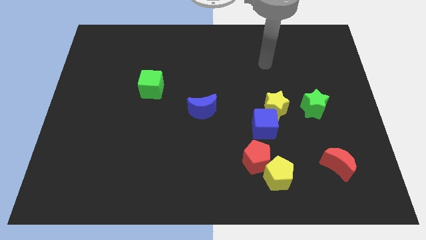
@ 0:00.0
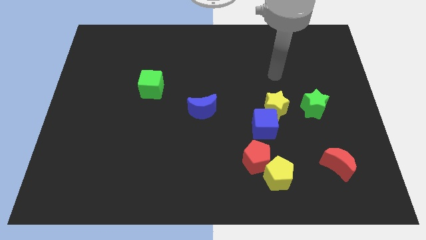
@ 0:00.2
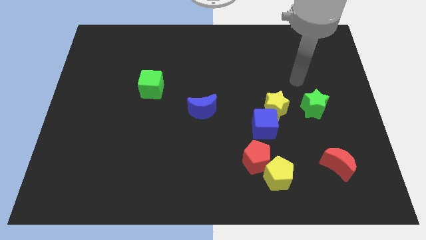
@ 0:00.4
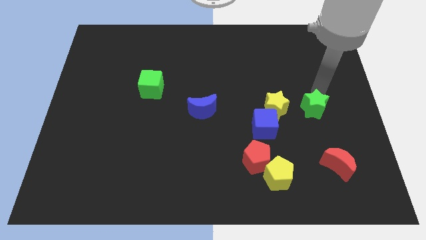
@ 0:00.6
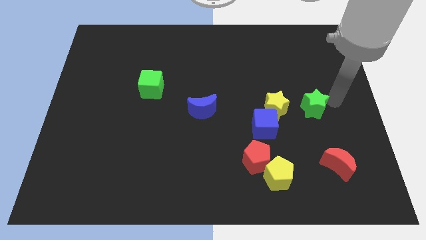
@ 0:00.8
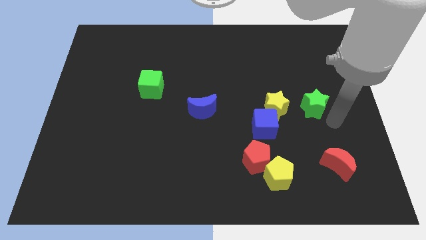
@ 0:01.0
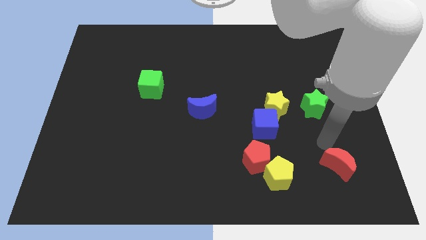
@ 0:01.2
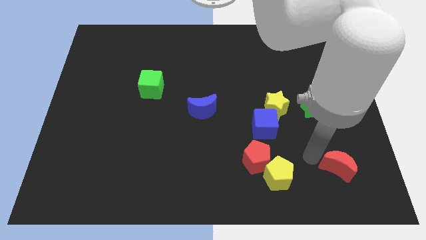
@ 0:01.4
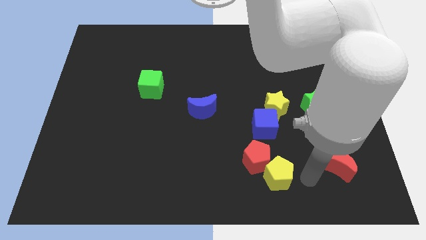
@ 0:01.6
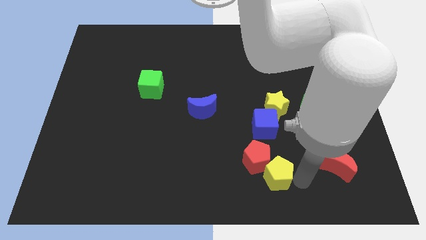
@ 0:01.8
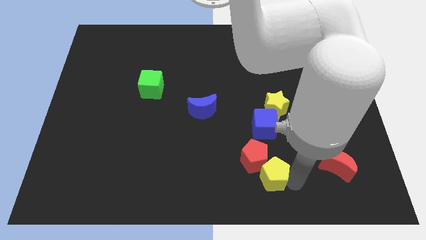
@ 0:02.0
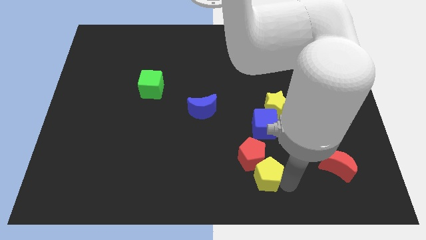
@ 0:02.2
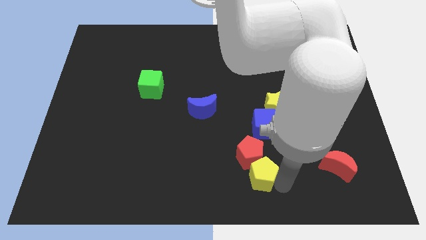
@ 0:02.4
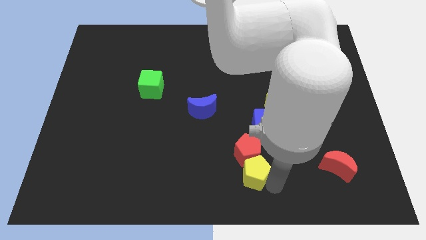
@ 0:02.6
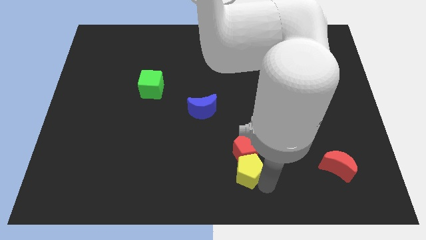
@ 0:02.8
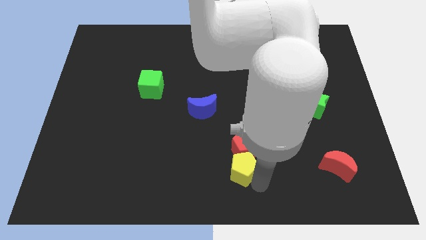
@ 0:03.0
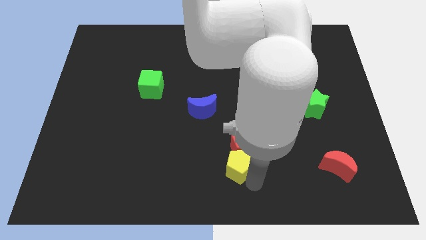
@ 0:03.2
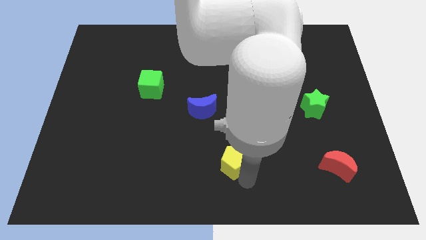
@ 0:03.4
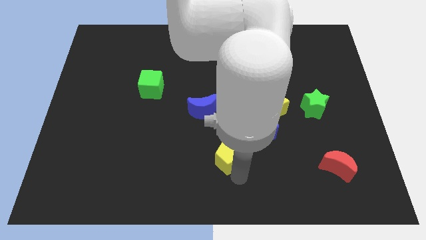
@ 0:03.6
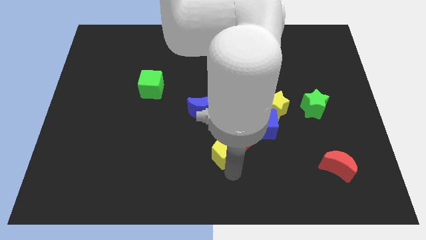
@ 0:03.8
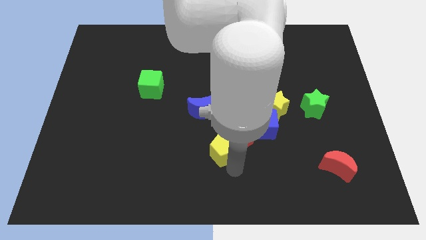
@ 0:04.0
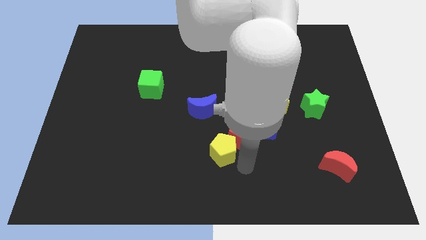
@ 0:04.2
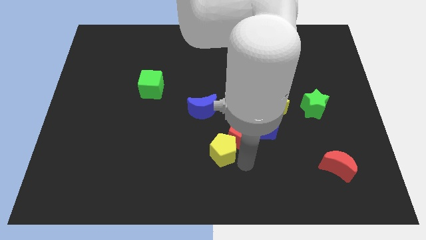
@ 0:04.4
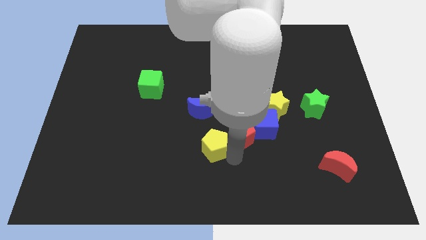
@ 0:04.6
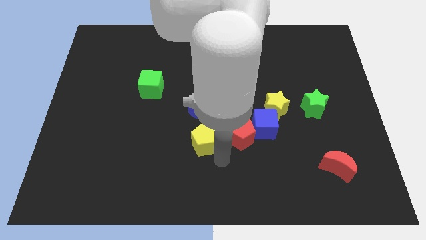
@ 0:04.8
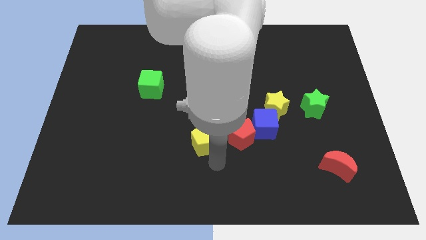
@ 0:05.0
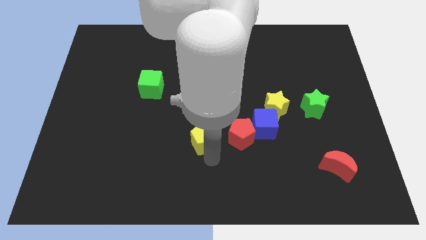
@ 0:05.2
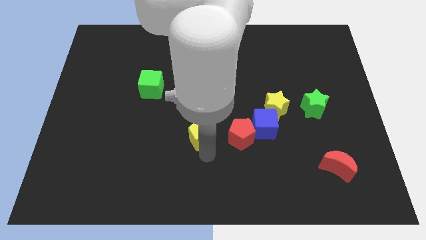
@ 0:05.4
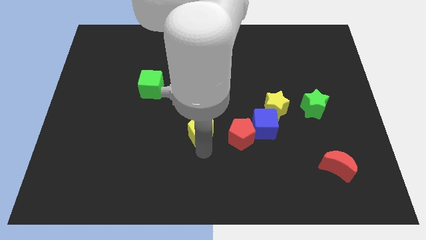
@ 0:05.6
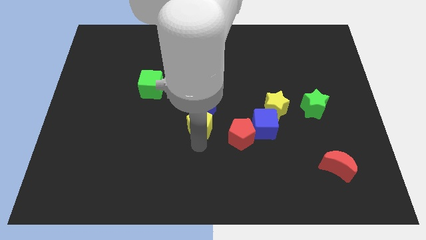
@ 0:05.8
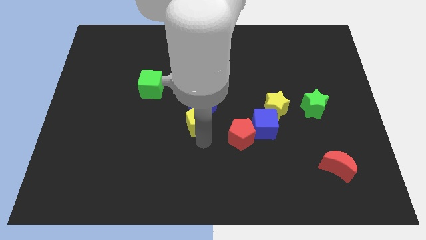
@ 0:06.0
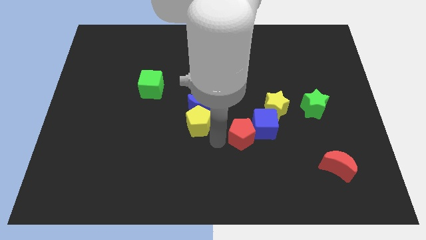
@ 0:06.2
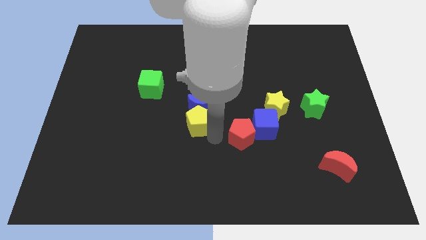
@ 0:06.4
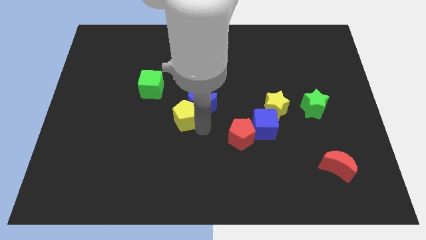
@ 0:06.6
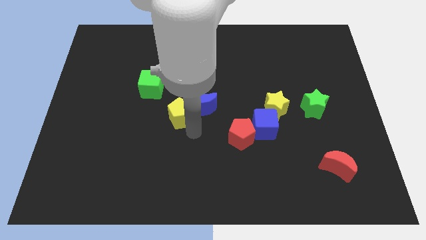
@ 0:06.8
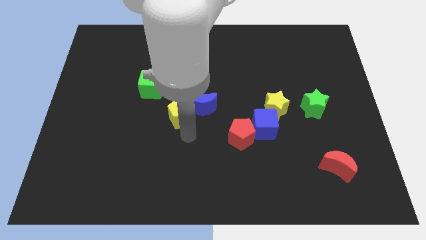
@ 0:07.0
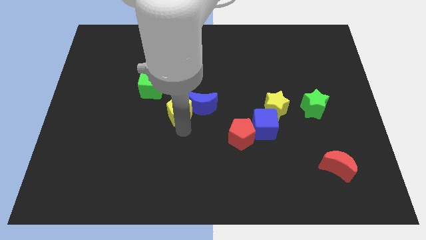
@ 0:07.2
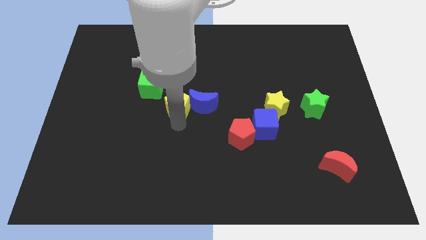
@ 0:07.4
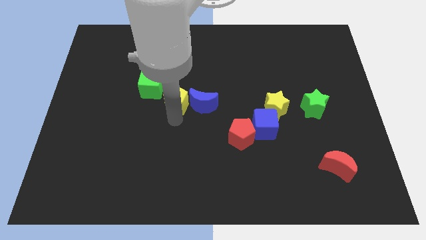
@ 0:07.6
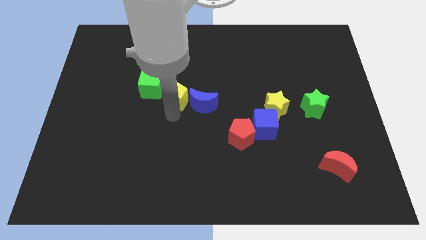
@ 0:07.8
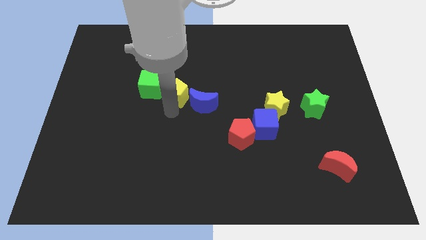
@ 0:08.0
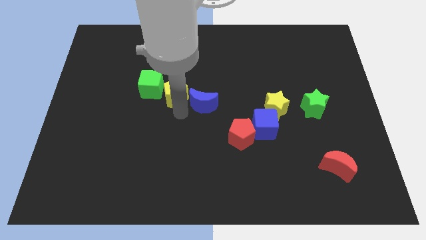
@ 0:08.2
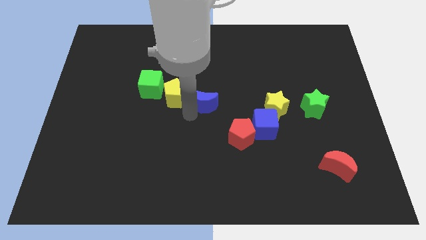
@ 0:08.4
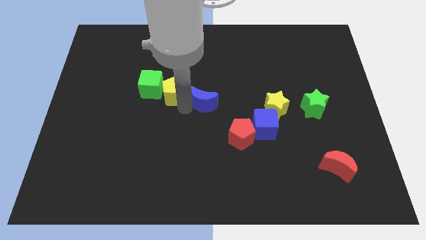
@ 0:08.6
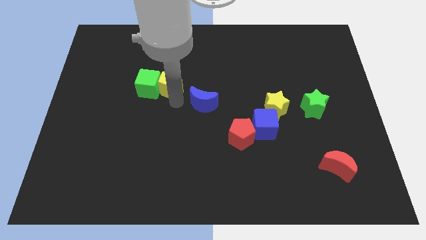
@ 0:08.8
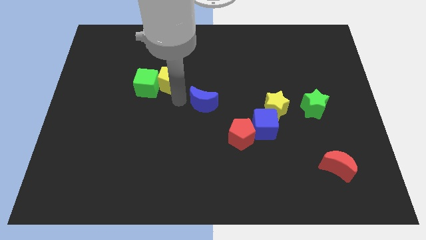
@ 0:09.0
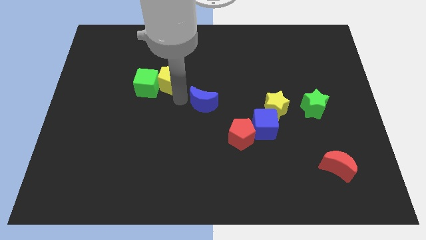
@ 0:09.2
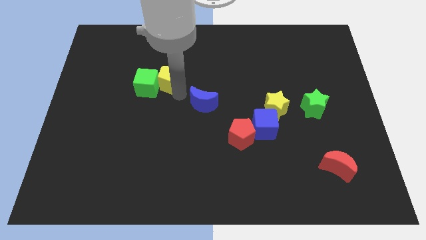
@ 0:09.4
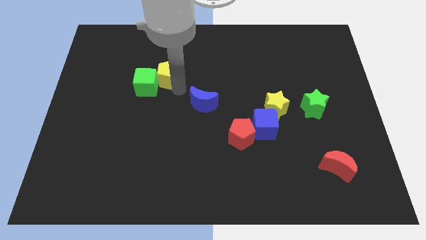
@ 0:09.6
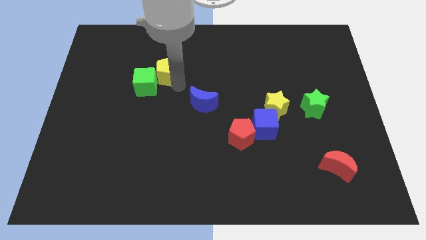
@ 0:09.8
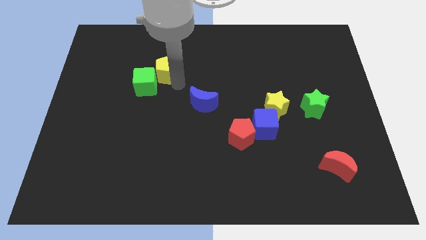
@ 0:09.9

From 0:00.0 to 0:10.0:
move the yellow pentagon to the top of the green cube

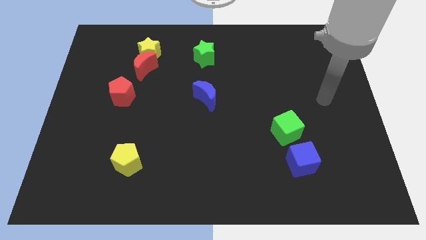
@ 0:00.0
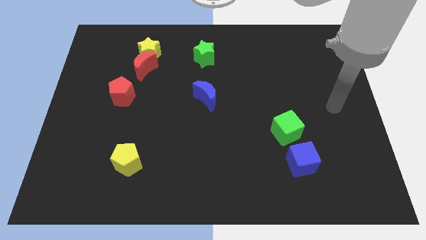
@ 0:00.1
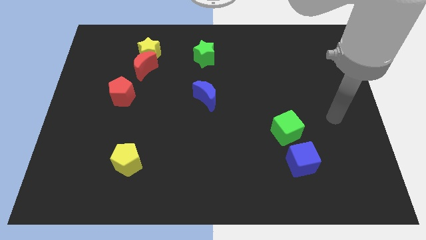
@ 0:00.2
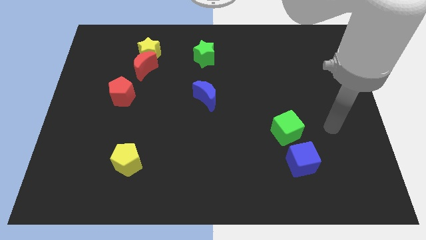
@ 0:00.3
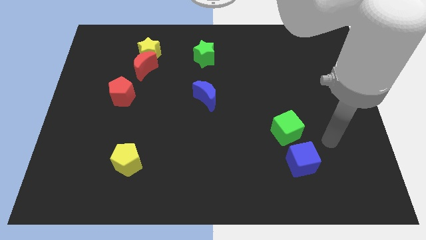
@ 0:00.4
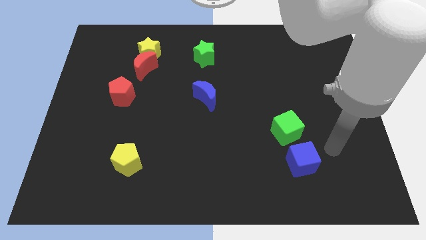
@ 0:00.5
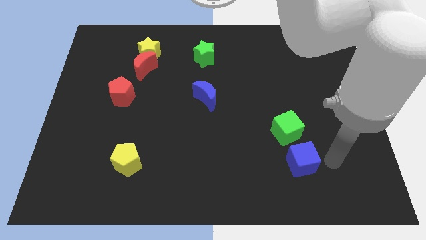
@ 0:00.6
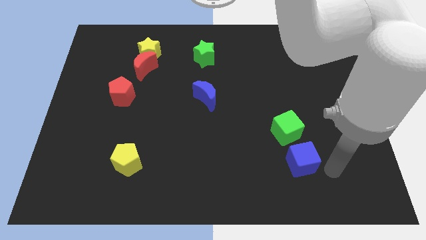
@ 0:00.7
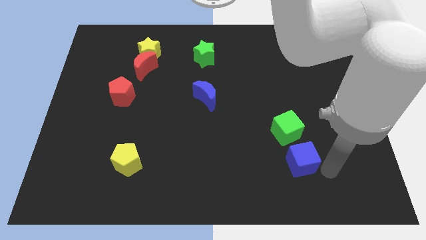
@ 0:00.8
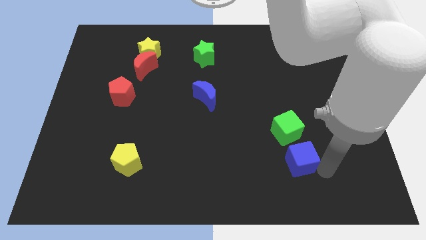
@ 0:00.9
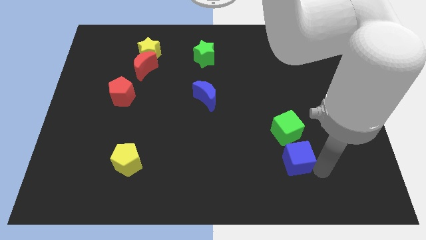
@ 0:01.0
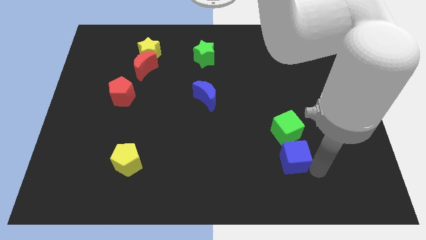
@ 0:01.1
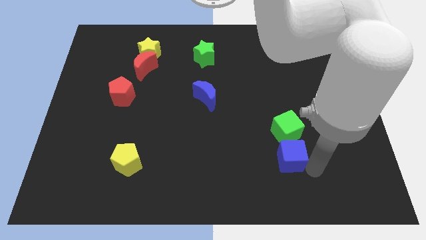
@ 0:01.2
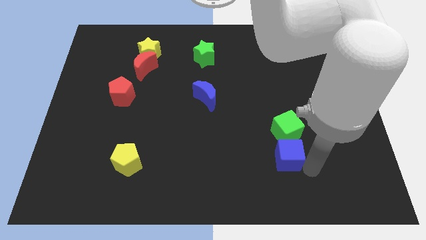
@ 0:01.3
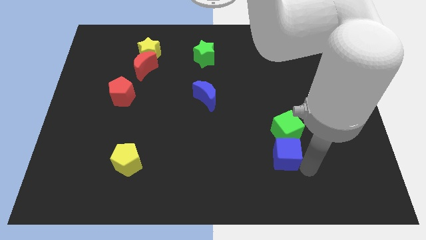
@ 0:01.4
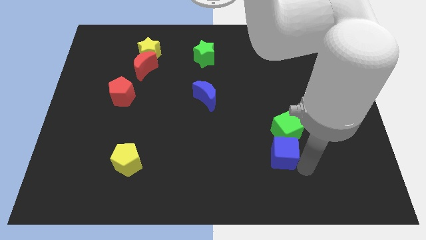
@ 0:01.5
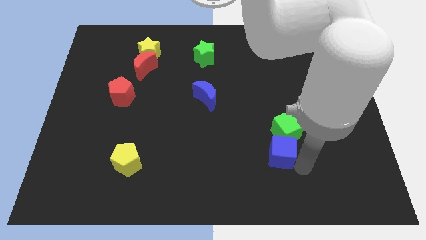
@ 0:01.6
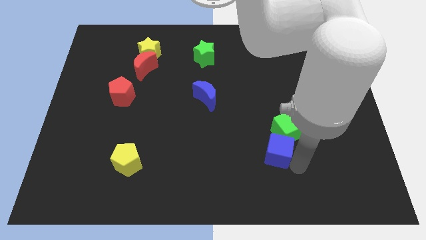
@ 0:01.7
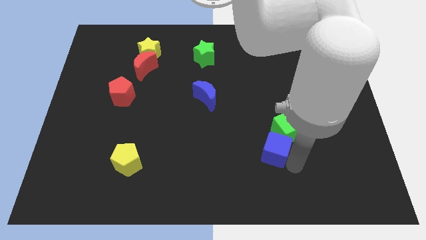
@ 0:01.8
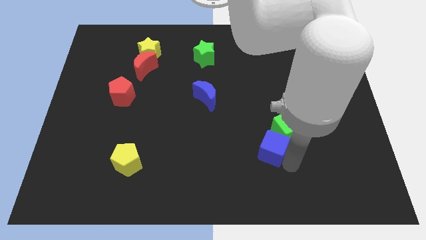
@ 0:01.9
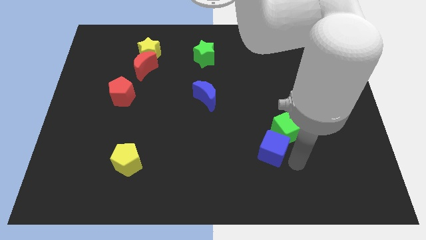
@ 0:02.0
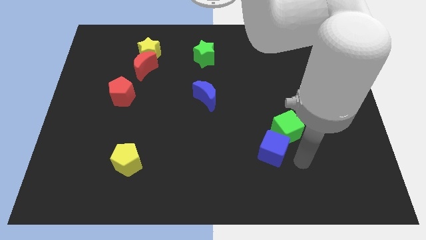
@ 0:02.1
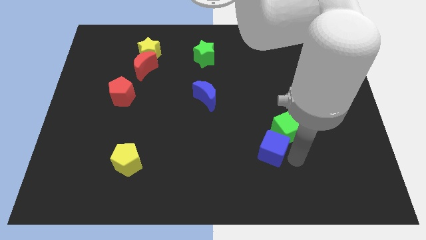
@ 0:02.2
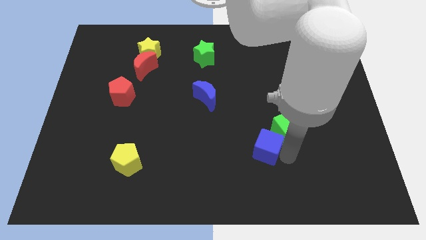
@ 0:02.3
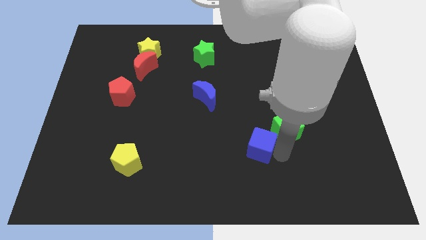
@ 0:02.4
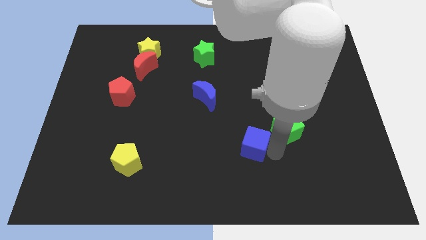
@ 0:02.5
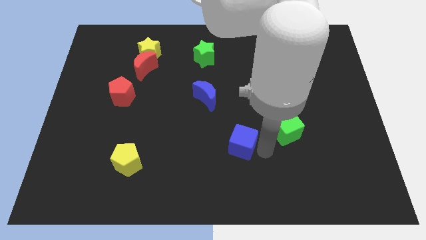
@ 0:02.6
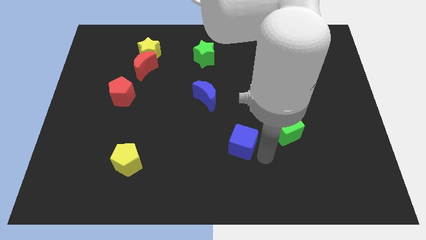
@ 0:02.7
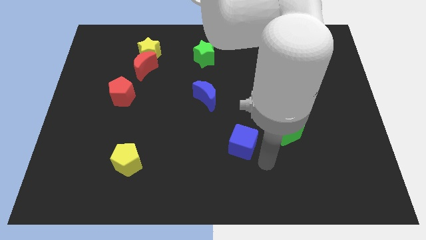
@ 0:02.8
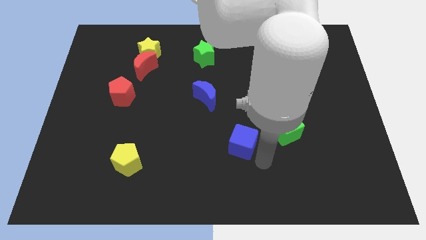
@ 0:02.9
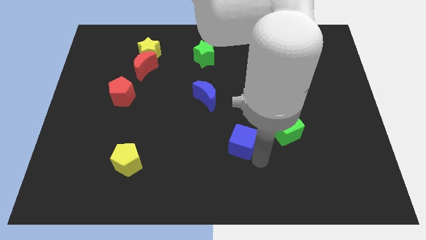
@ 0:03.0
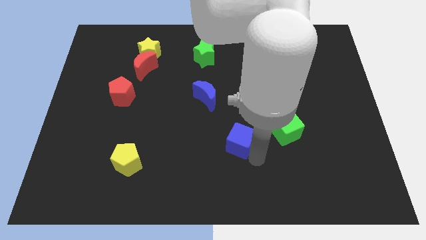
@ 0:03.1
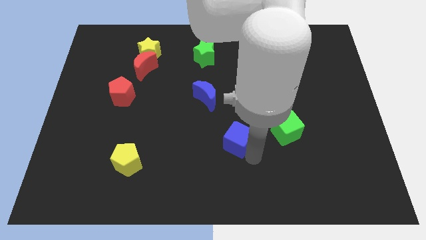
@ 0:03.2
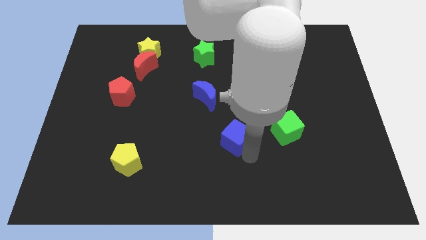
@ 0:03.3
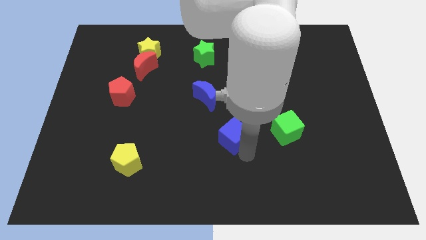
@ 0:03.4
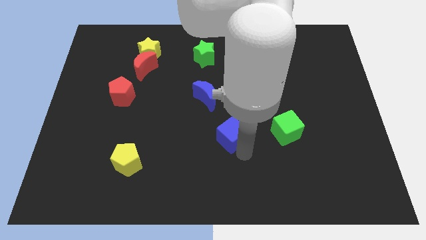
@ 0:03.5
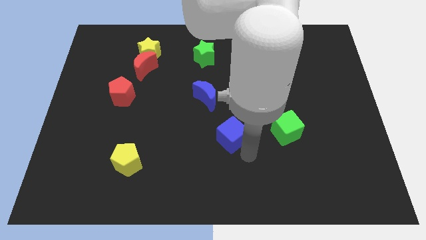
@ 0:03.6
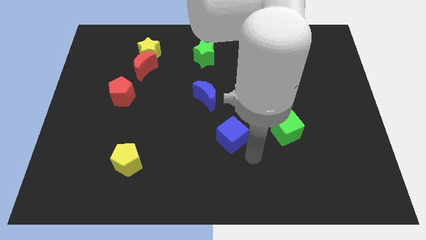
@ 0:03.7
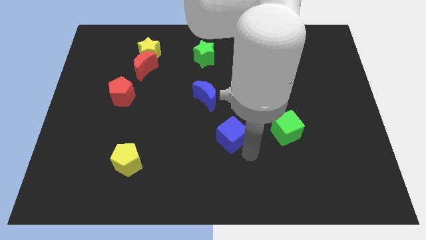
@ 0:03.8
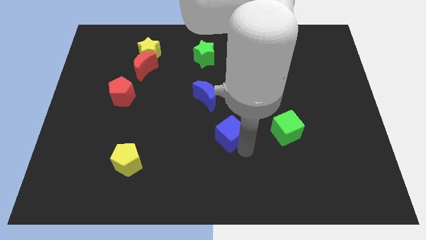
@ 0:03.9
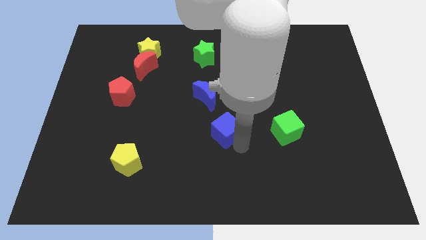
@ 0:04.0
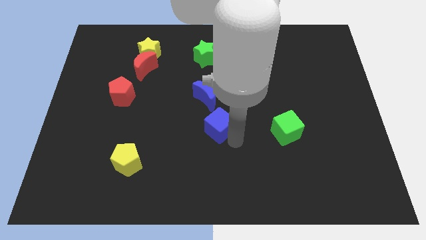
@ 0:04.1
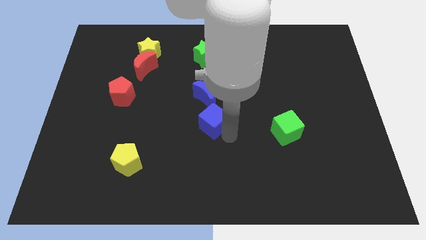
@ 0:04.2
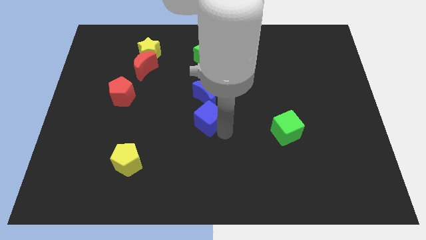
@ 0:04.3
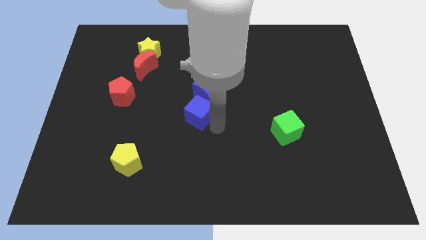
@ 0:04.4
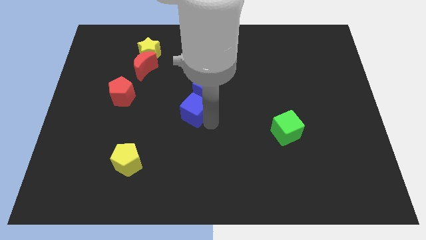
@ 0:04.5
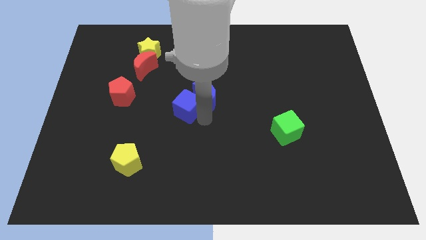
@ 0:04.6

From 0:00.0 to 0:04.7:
slide the blue cube to the left of the blue moon
